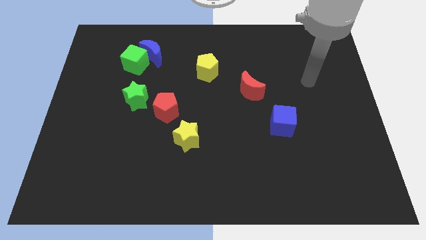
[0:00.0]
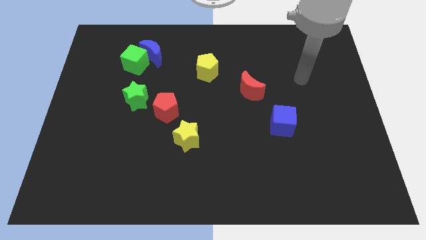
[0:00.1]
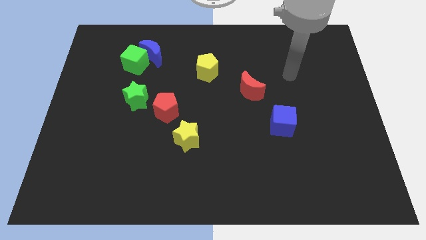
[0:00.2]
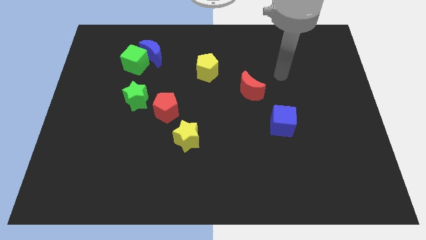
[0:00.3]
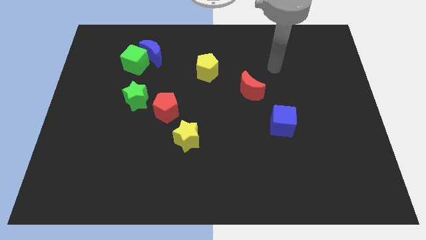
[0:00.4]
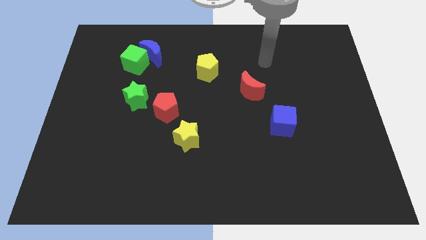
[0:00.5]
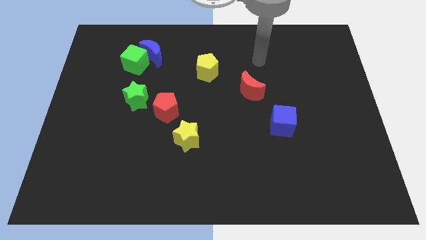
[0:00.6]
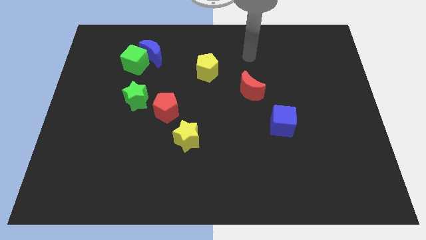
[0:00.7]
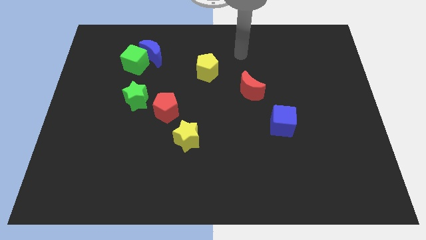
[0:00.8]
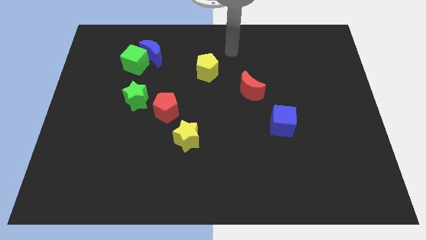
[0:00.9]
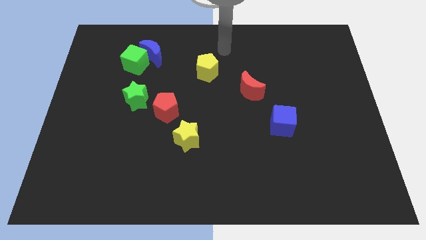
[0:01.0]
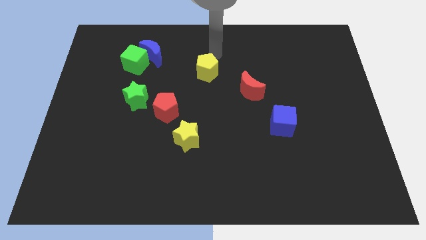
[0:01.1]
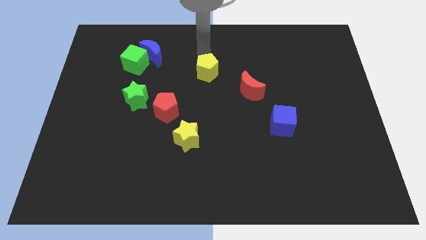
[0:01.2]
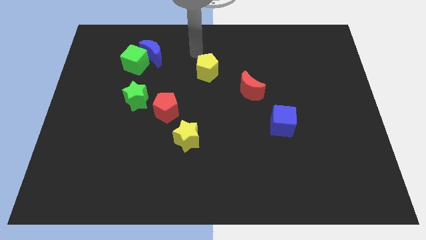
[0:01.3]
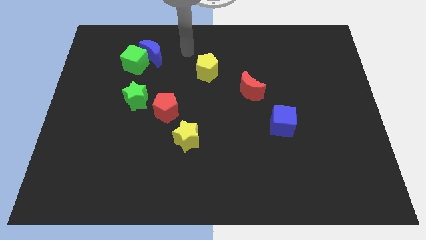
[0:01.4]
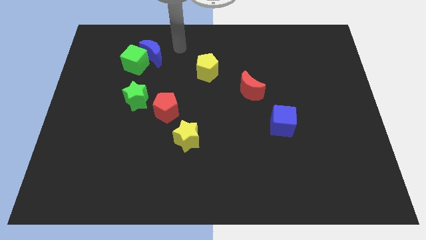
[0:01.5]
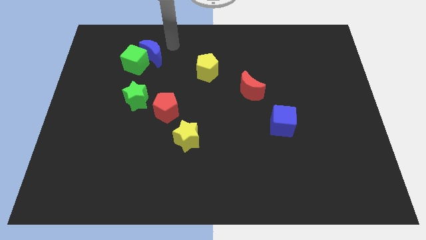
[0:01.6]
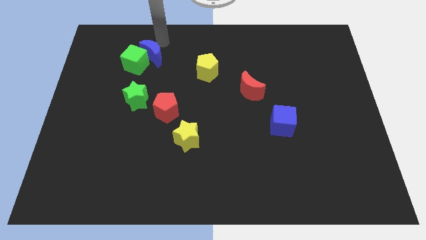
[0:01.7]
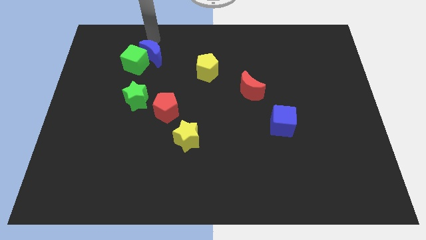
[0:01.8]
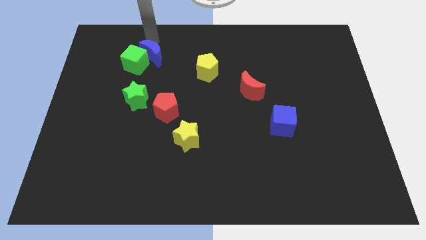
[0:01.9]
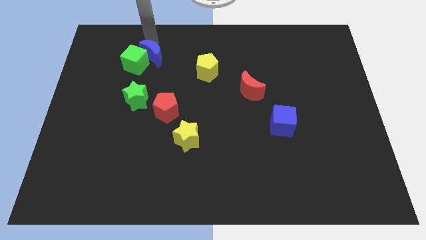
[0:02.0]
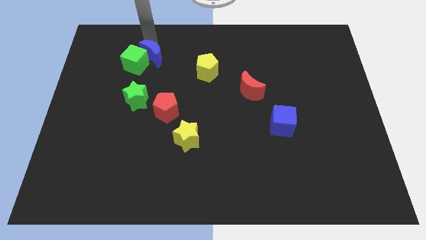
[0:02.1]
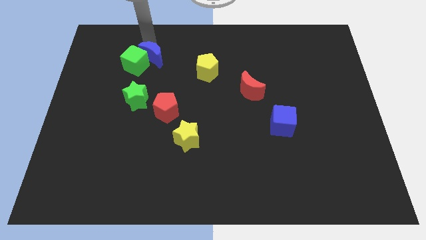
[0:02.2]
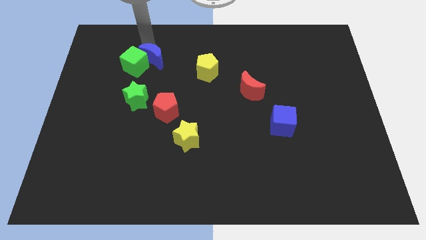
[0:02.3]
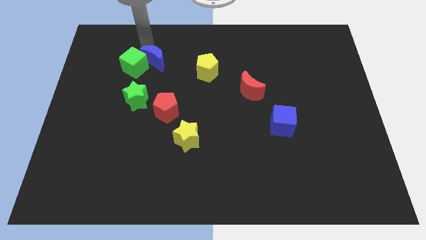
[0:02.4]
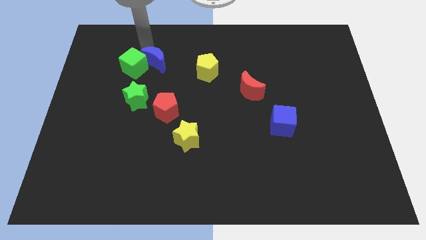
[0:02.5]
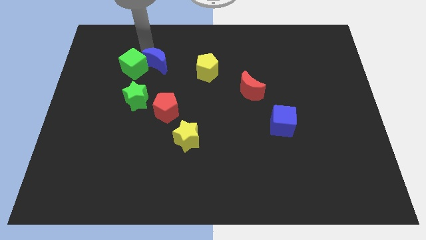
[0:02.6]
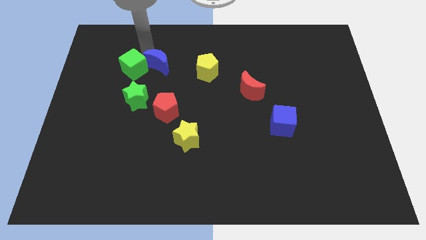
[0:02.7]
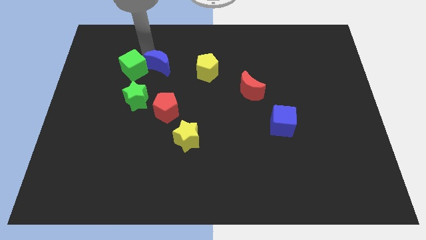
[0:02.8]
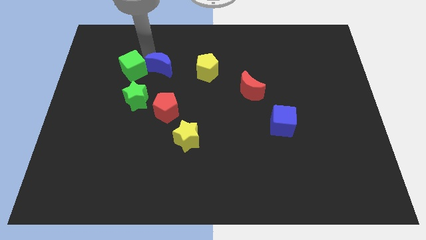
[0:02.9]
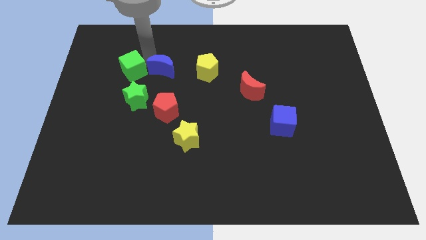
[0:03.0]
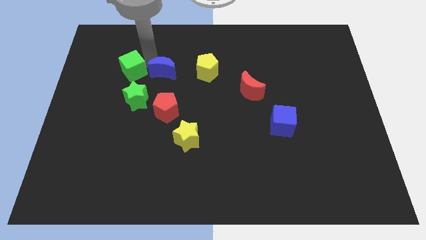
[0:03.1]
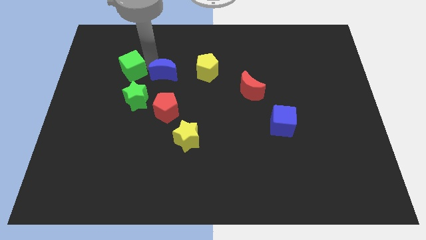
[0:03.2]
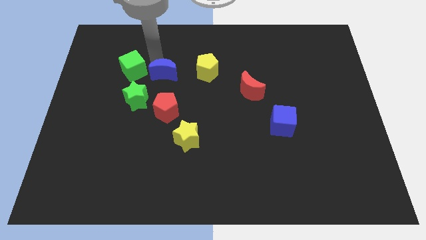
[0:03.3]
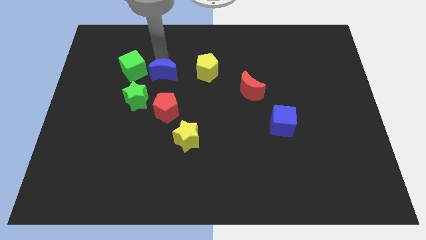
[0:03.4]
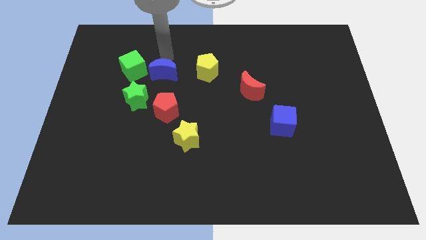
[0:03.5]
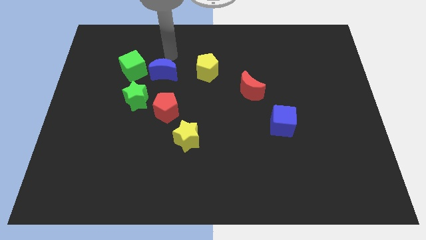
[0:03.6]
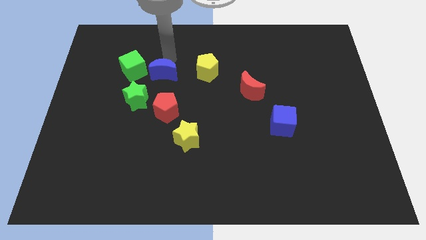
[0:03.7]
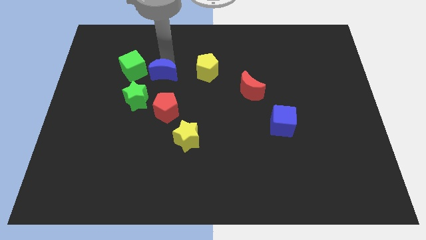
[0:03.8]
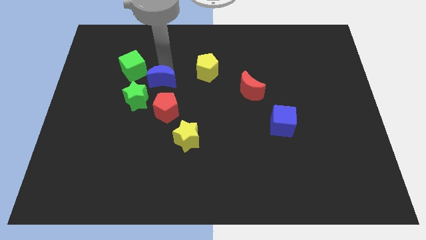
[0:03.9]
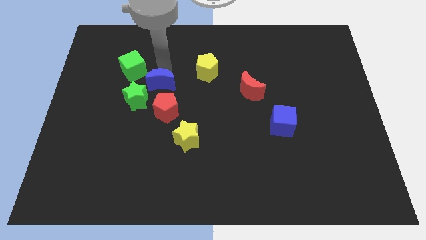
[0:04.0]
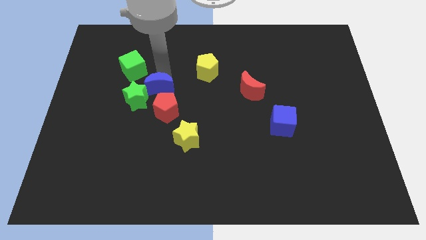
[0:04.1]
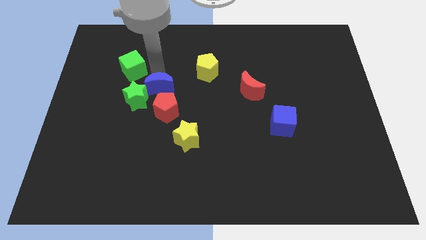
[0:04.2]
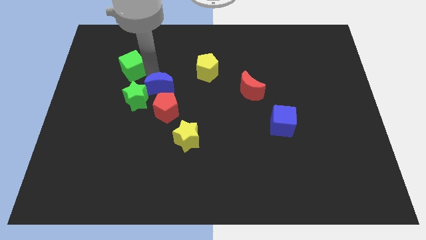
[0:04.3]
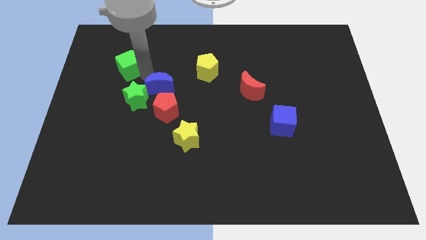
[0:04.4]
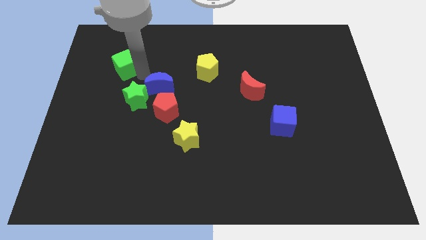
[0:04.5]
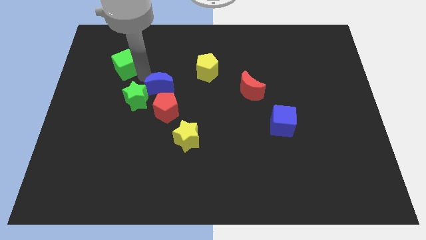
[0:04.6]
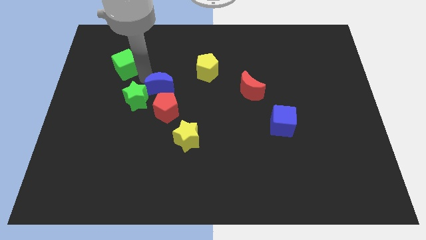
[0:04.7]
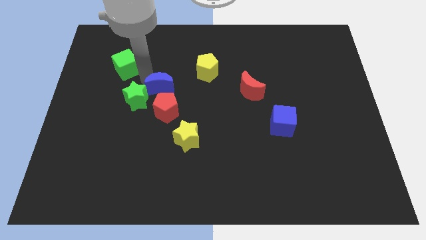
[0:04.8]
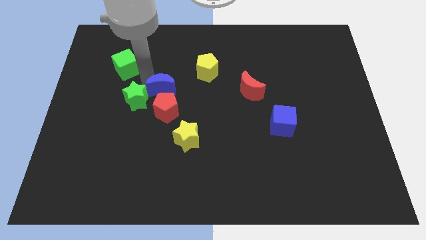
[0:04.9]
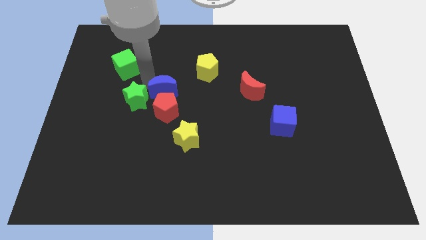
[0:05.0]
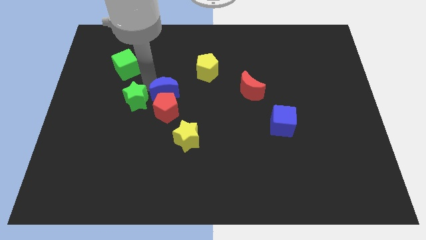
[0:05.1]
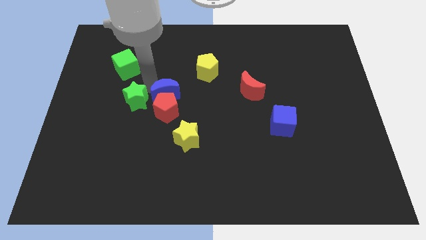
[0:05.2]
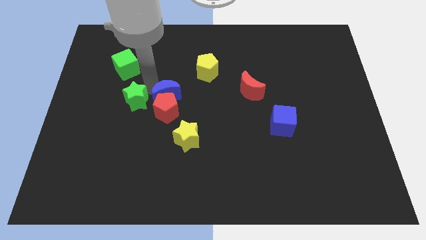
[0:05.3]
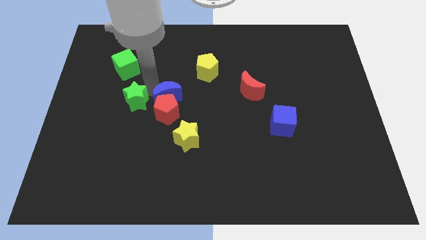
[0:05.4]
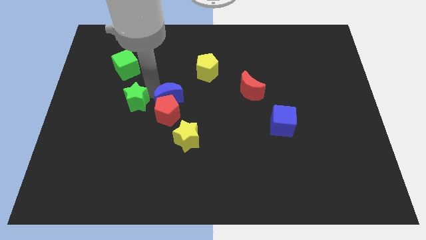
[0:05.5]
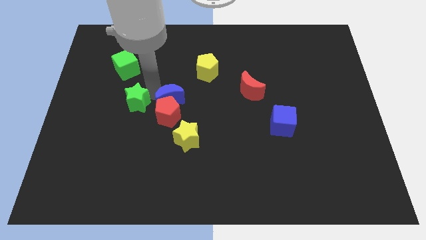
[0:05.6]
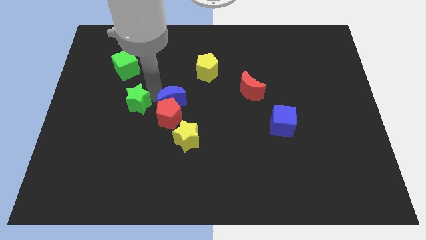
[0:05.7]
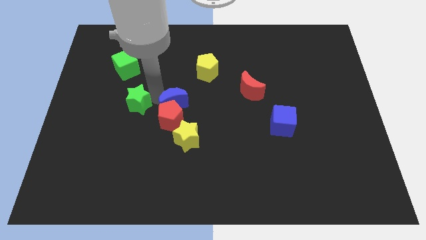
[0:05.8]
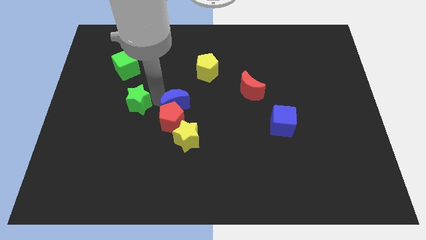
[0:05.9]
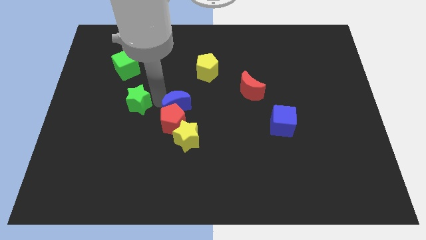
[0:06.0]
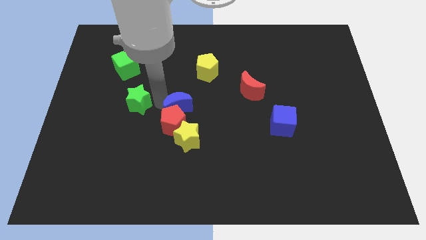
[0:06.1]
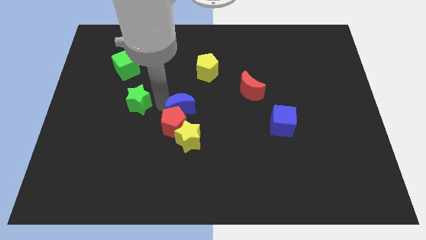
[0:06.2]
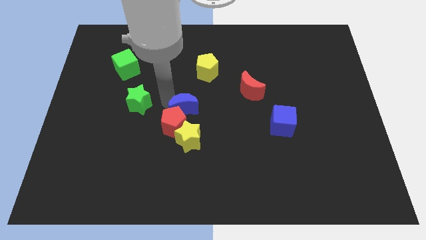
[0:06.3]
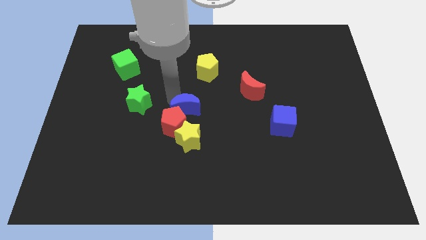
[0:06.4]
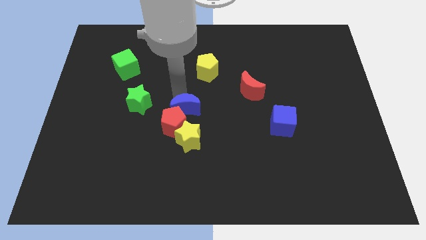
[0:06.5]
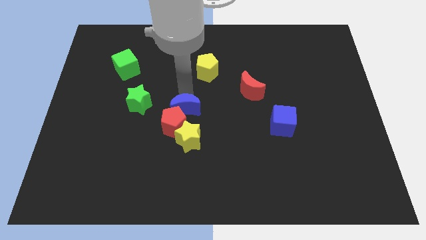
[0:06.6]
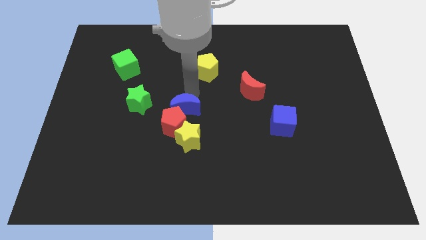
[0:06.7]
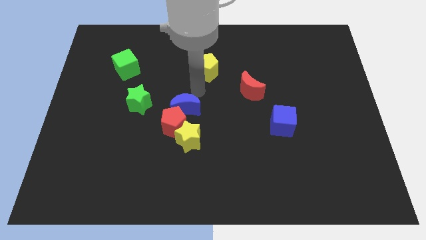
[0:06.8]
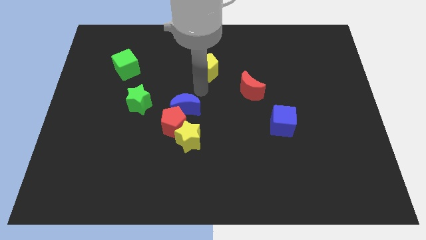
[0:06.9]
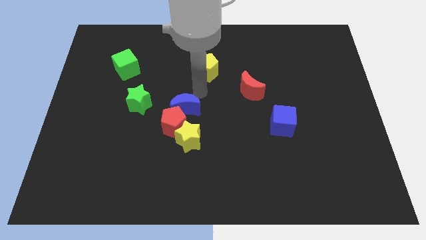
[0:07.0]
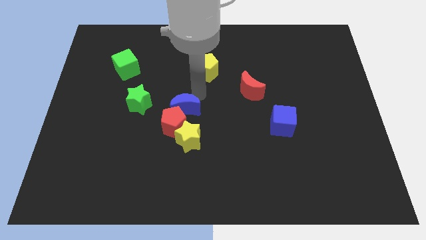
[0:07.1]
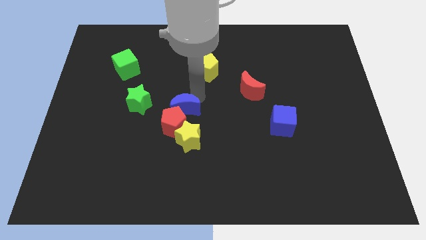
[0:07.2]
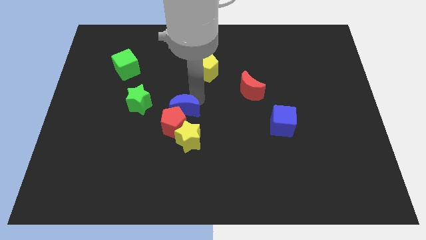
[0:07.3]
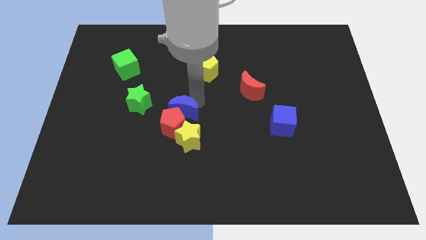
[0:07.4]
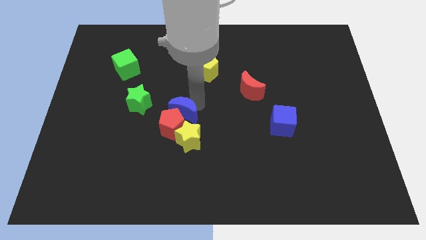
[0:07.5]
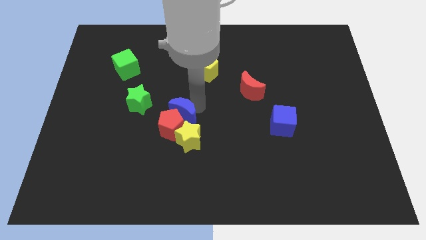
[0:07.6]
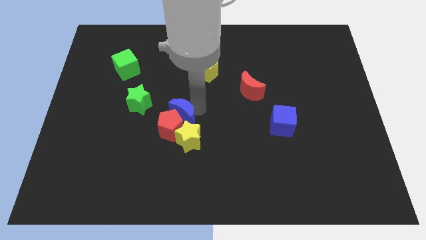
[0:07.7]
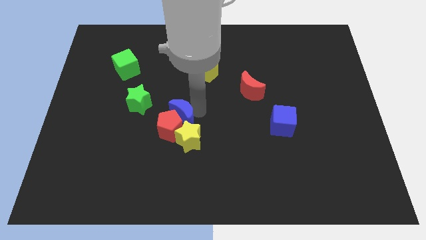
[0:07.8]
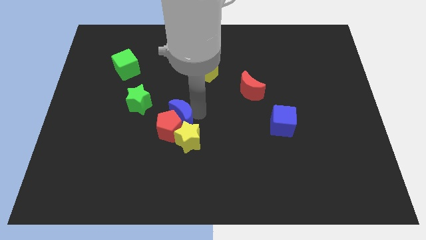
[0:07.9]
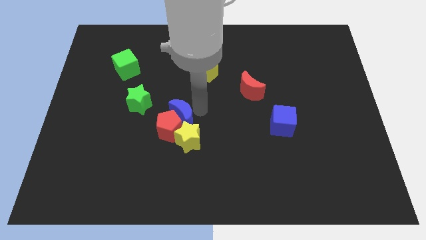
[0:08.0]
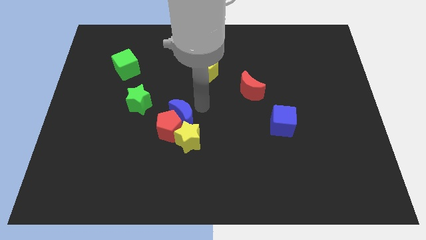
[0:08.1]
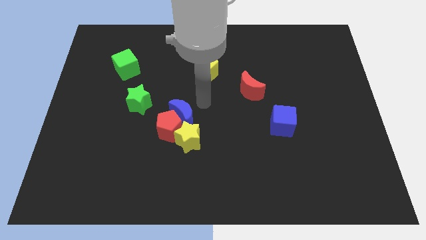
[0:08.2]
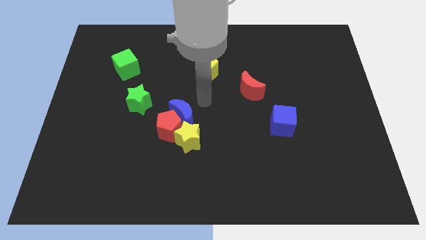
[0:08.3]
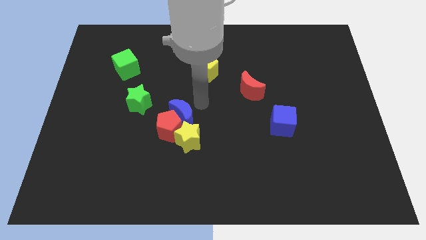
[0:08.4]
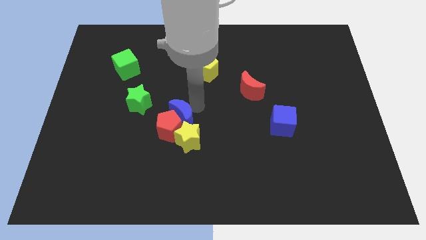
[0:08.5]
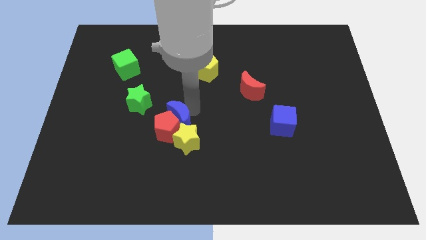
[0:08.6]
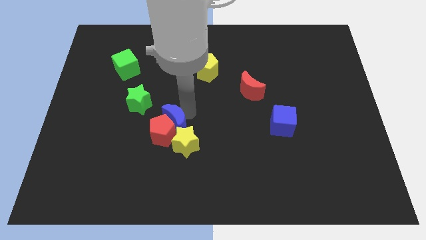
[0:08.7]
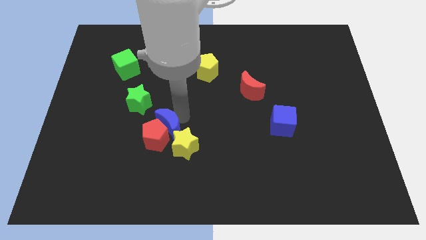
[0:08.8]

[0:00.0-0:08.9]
slide the blue moon downwards
